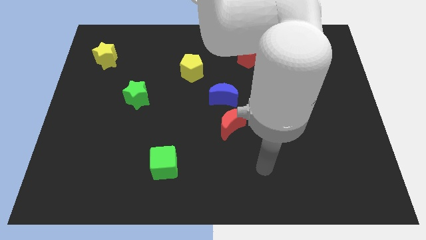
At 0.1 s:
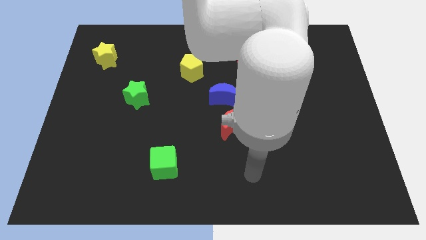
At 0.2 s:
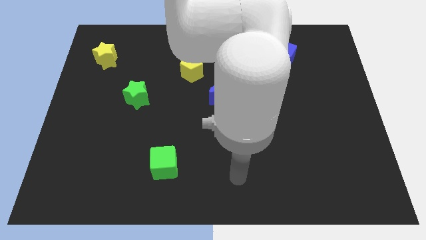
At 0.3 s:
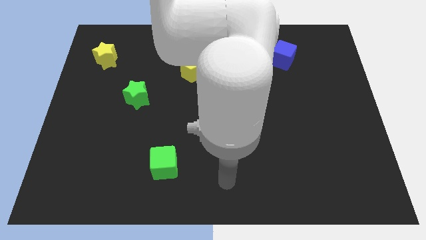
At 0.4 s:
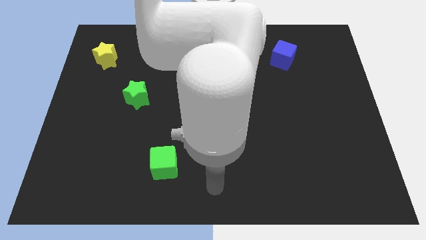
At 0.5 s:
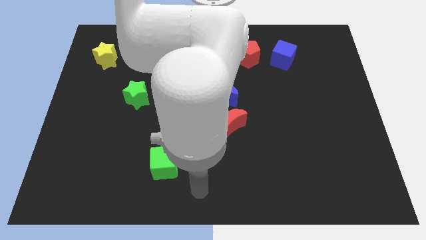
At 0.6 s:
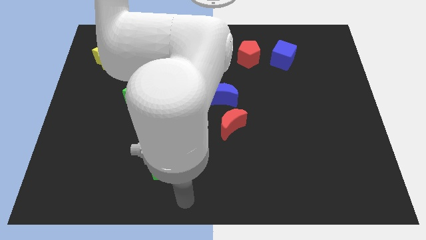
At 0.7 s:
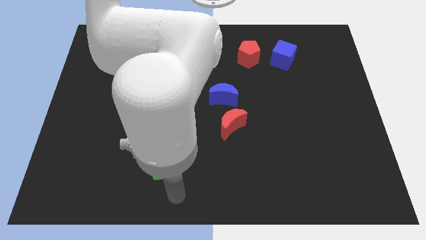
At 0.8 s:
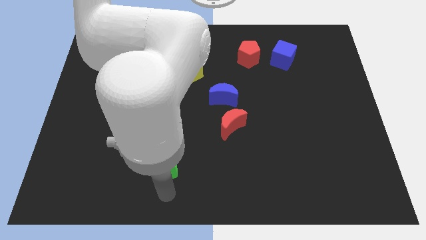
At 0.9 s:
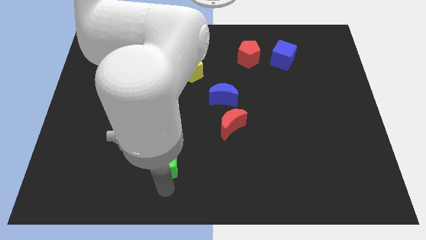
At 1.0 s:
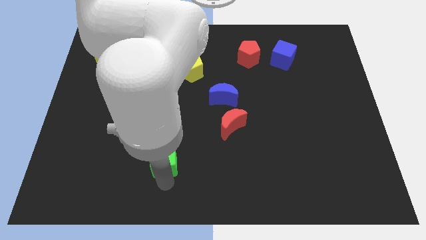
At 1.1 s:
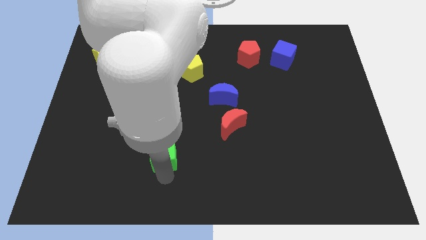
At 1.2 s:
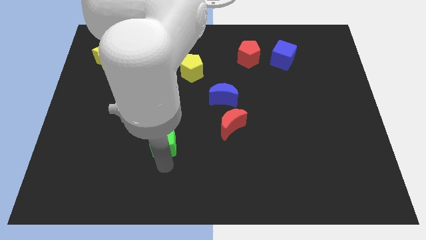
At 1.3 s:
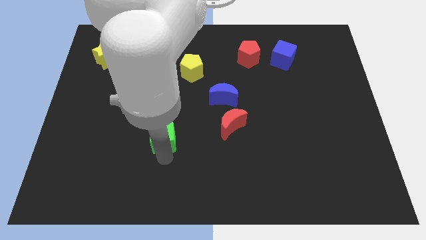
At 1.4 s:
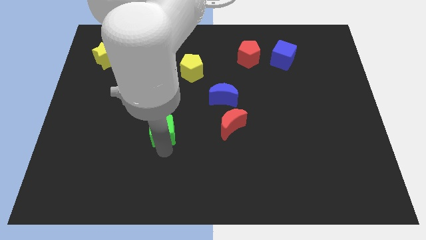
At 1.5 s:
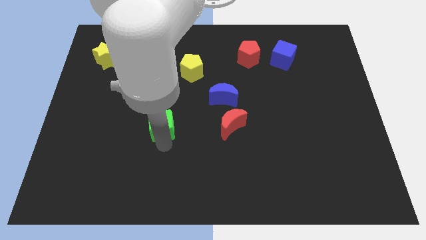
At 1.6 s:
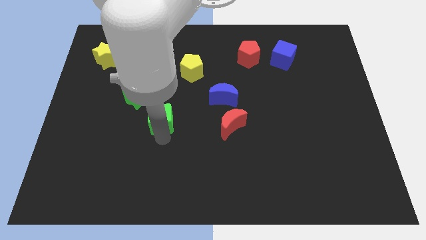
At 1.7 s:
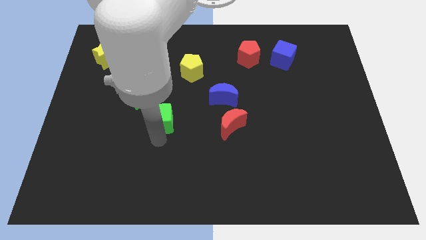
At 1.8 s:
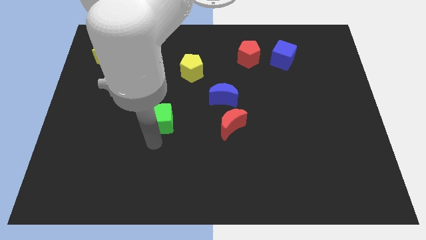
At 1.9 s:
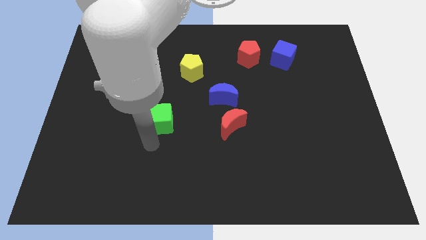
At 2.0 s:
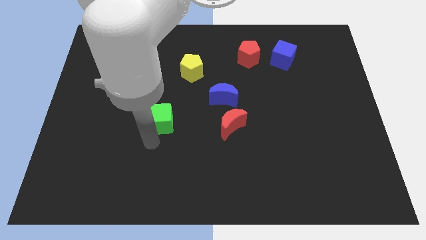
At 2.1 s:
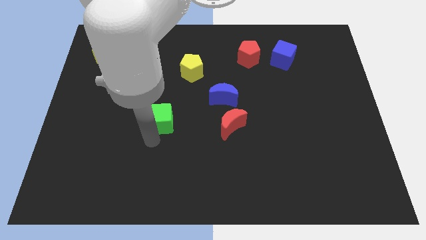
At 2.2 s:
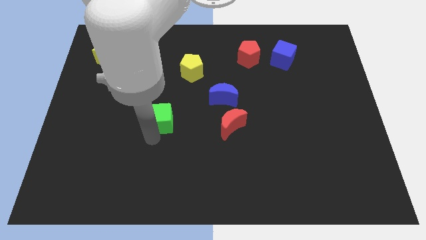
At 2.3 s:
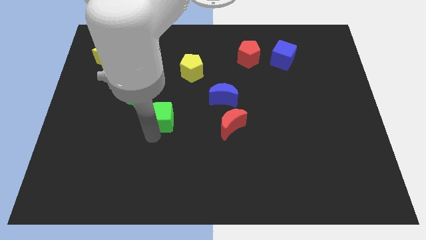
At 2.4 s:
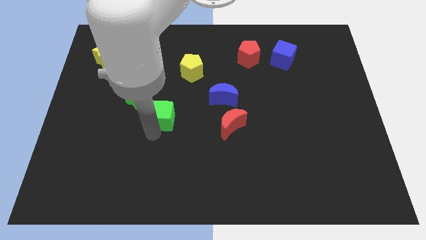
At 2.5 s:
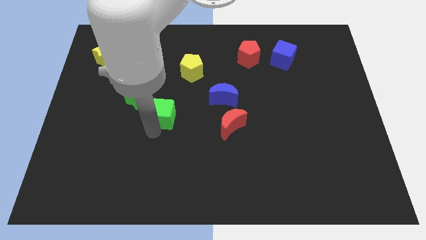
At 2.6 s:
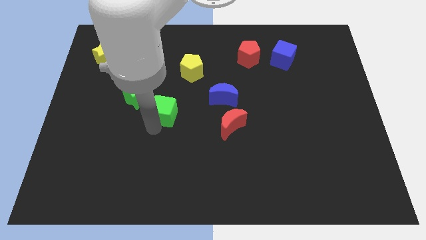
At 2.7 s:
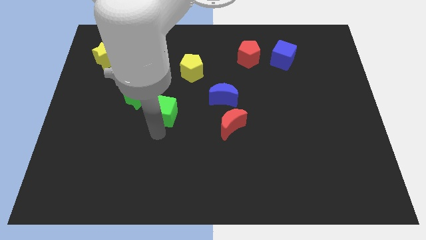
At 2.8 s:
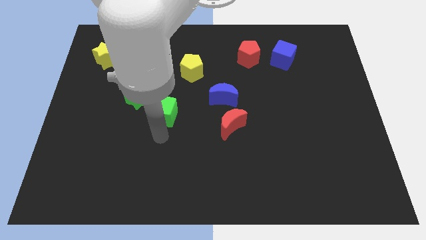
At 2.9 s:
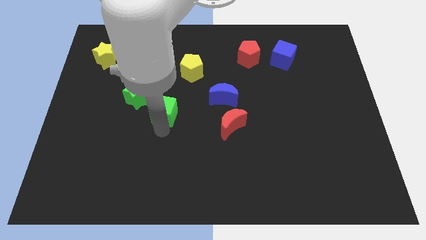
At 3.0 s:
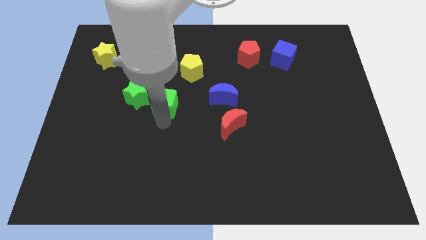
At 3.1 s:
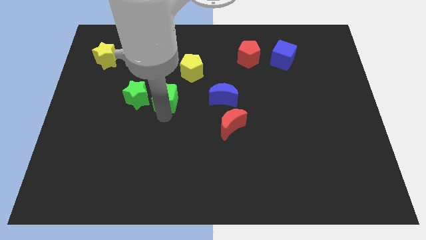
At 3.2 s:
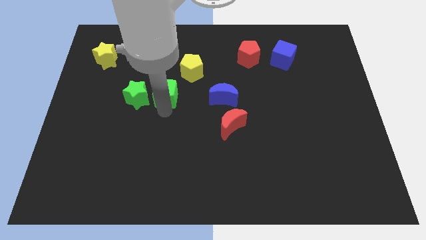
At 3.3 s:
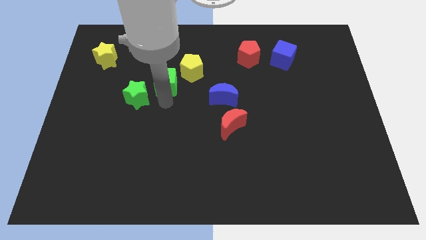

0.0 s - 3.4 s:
move the green cube up

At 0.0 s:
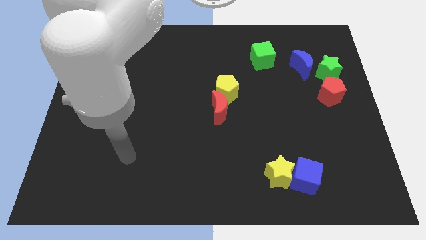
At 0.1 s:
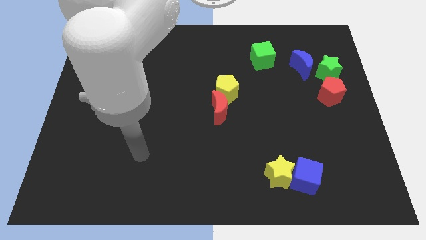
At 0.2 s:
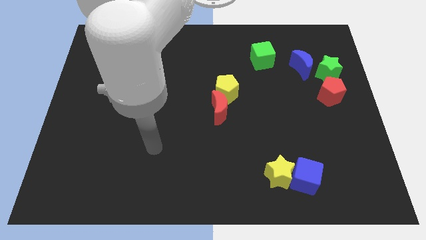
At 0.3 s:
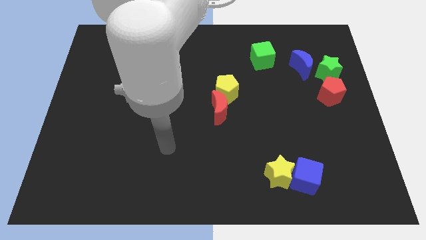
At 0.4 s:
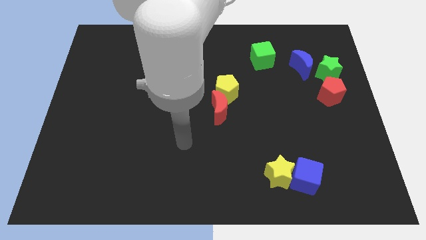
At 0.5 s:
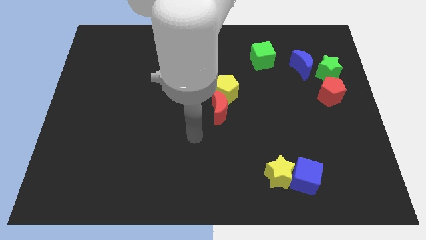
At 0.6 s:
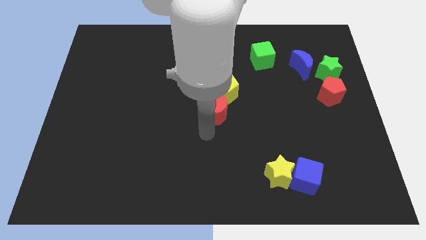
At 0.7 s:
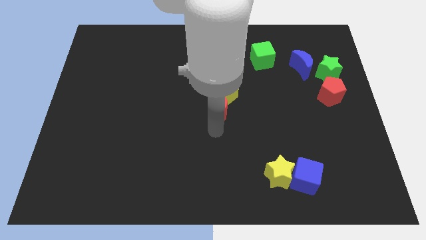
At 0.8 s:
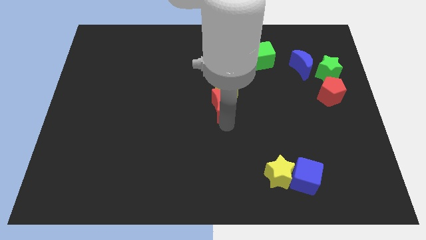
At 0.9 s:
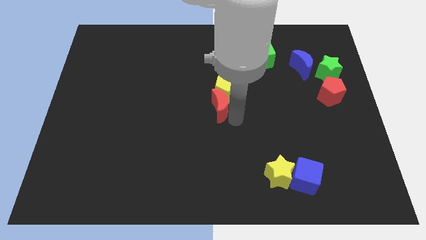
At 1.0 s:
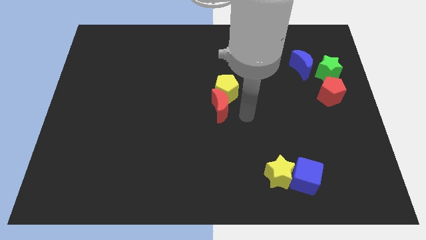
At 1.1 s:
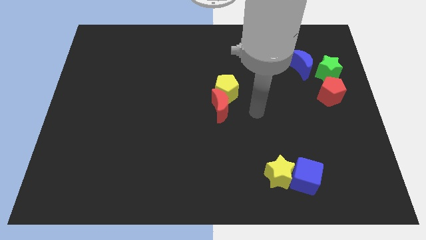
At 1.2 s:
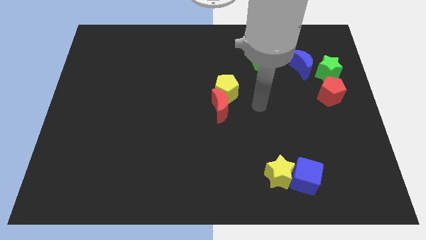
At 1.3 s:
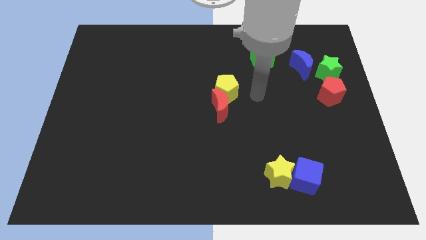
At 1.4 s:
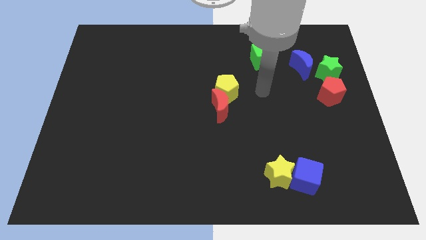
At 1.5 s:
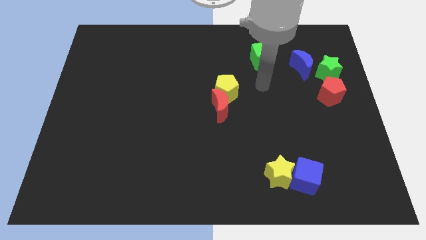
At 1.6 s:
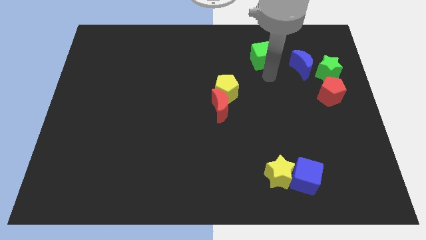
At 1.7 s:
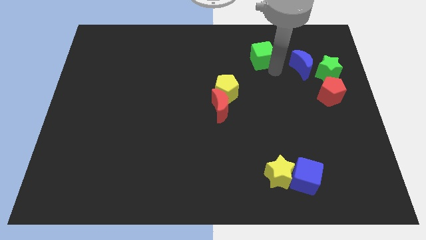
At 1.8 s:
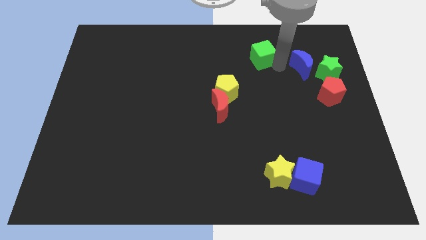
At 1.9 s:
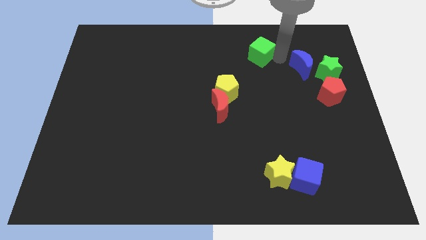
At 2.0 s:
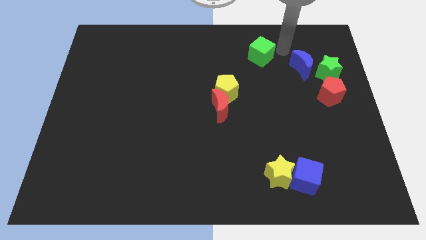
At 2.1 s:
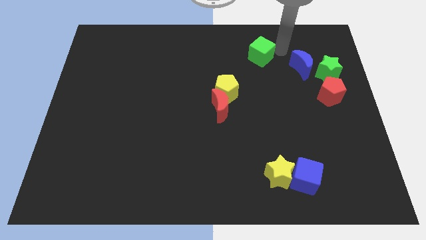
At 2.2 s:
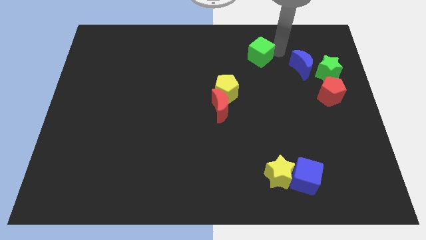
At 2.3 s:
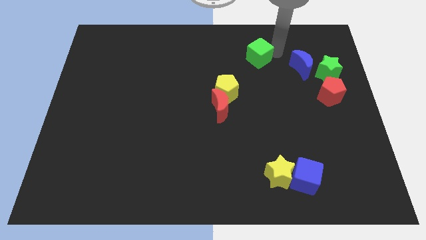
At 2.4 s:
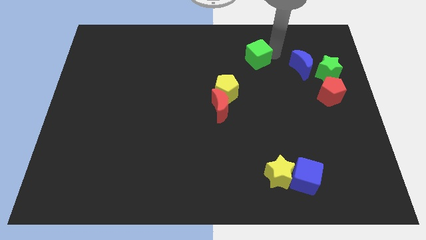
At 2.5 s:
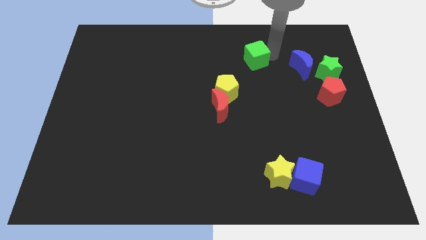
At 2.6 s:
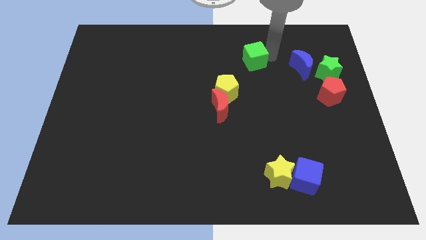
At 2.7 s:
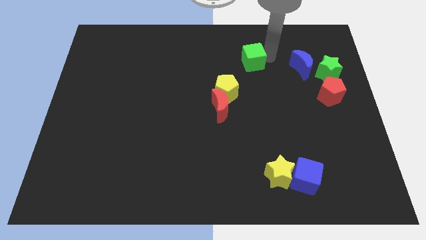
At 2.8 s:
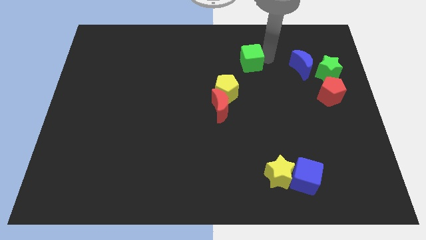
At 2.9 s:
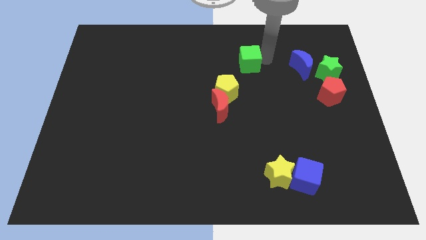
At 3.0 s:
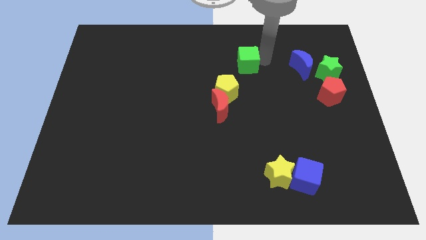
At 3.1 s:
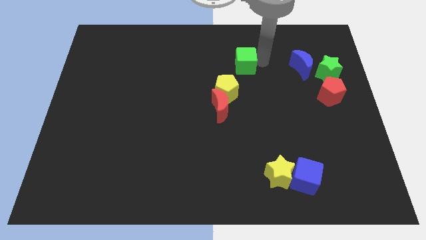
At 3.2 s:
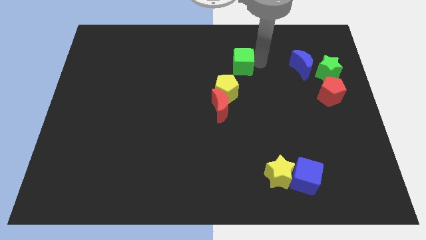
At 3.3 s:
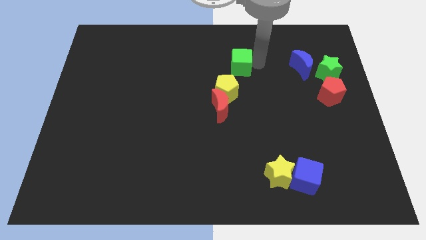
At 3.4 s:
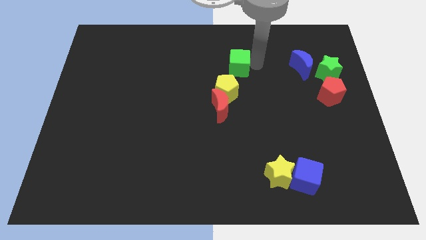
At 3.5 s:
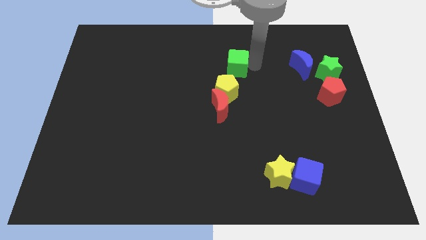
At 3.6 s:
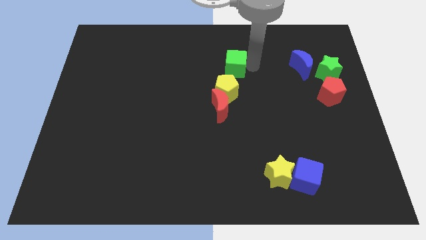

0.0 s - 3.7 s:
move the green cube a little bit left

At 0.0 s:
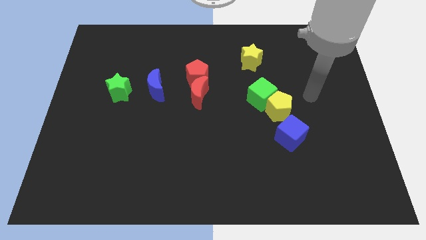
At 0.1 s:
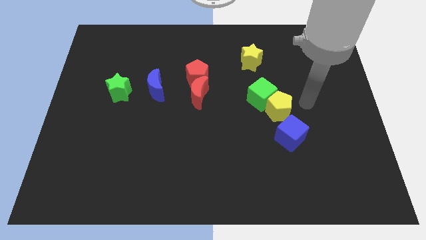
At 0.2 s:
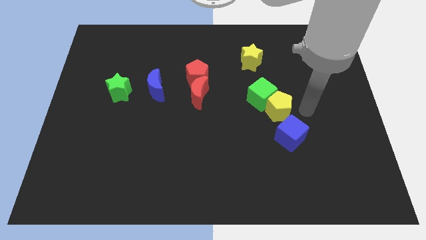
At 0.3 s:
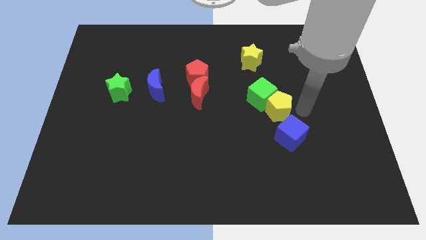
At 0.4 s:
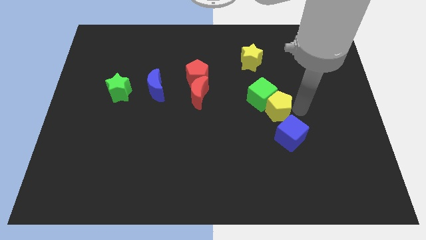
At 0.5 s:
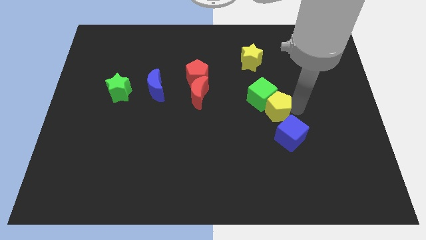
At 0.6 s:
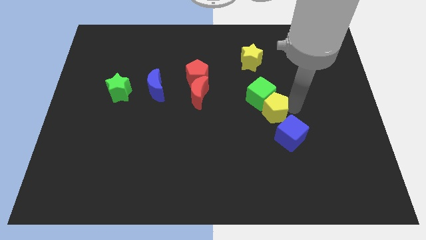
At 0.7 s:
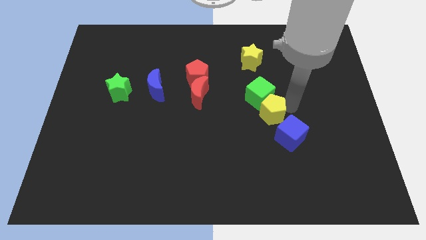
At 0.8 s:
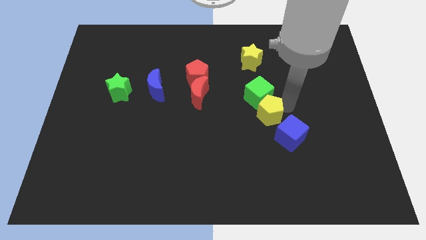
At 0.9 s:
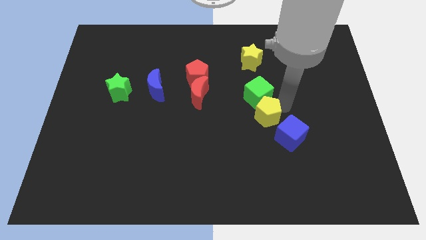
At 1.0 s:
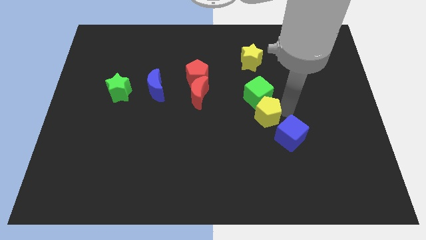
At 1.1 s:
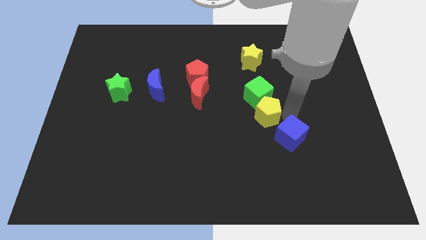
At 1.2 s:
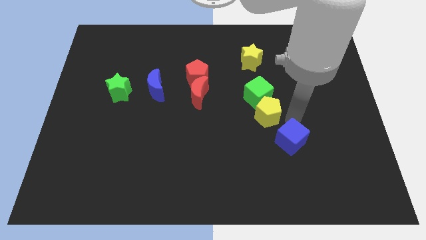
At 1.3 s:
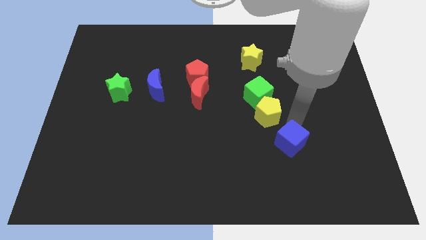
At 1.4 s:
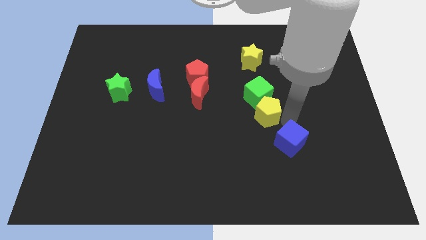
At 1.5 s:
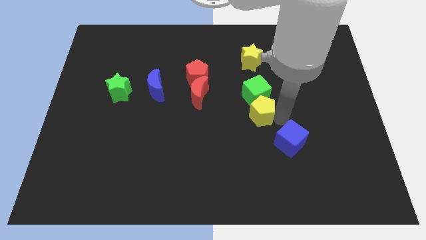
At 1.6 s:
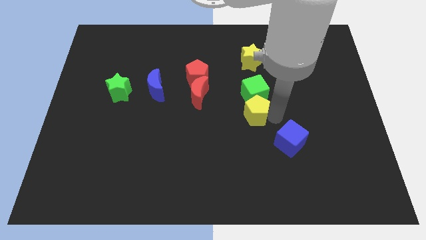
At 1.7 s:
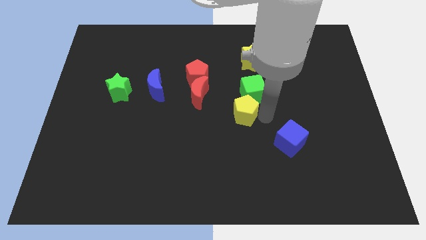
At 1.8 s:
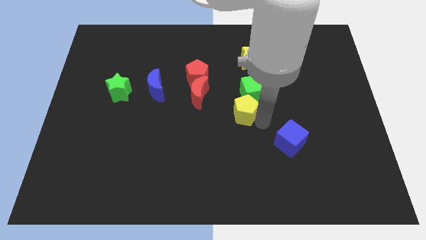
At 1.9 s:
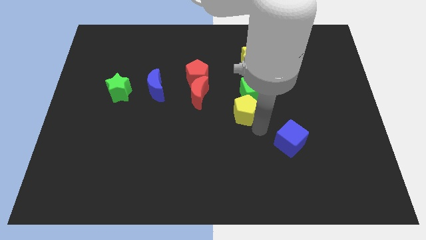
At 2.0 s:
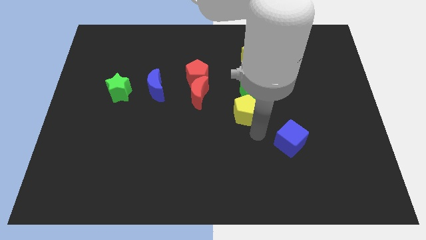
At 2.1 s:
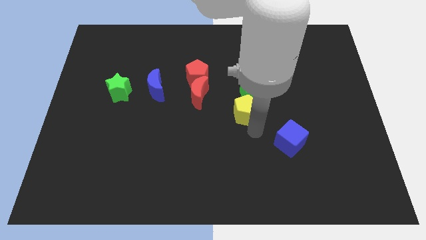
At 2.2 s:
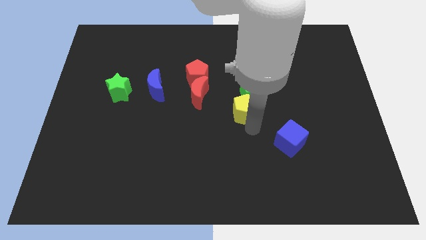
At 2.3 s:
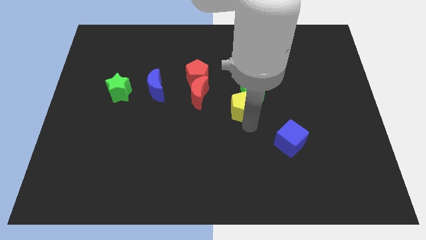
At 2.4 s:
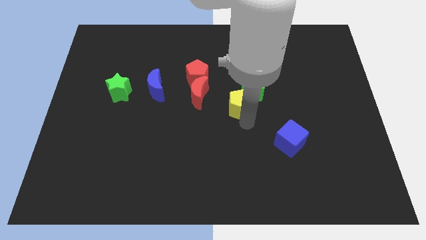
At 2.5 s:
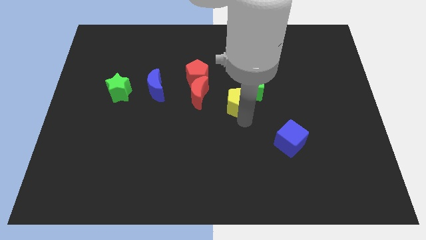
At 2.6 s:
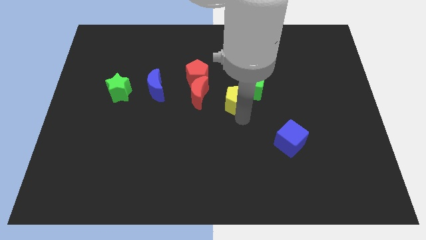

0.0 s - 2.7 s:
move the yellow pentagon up and then to the left somewhat